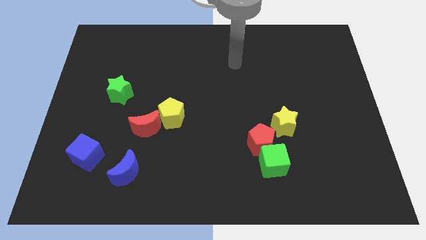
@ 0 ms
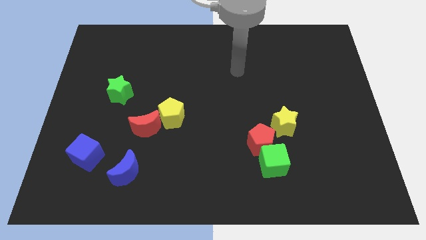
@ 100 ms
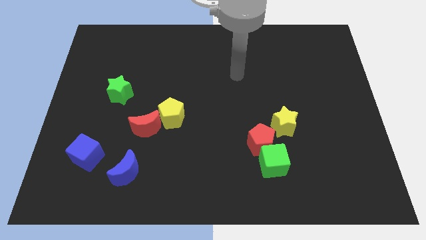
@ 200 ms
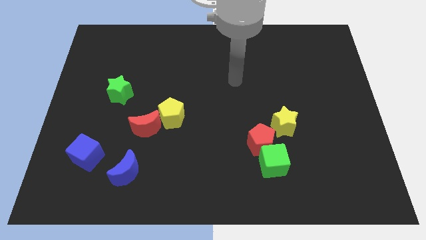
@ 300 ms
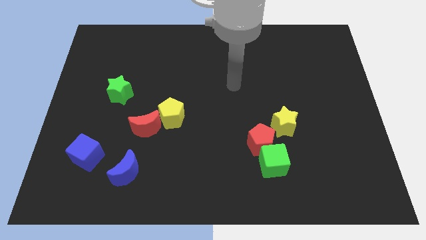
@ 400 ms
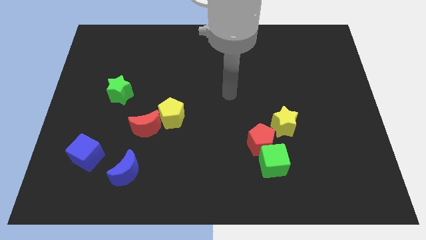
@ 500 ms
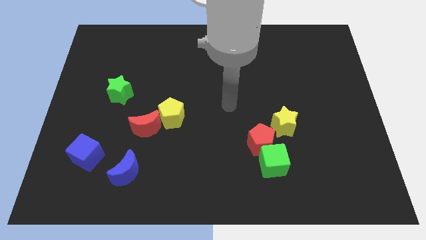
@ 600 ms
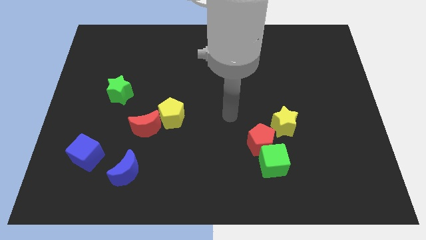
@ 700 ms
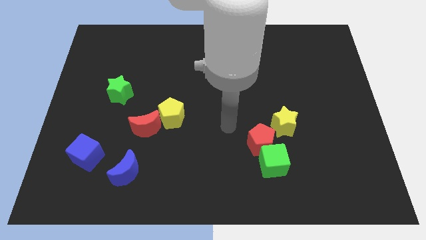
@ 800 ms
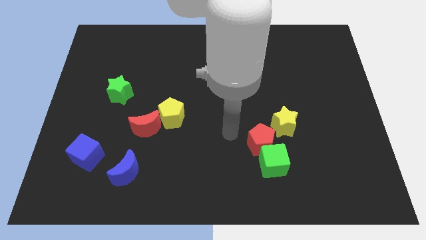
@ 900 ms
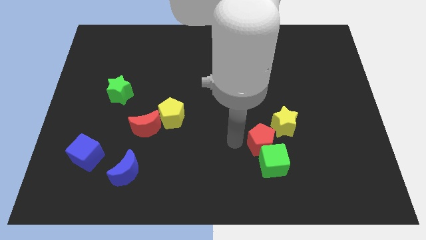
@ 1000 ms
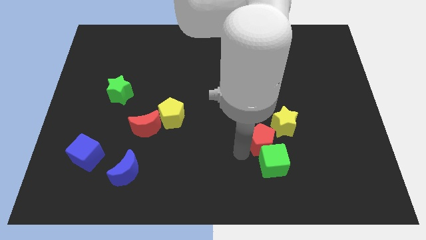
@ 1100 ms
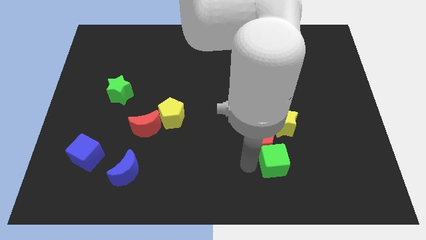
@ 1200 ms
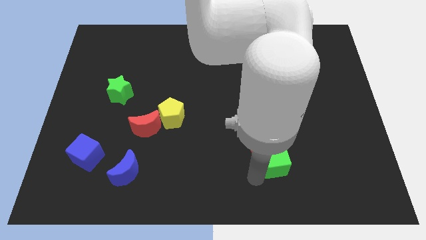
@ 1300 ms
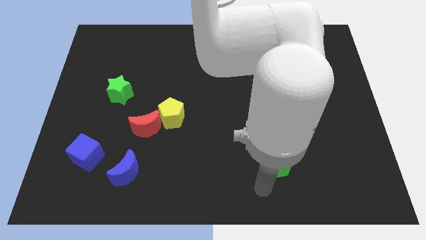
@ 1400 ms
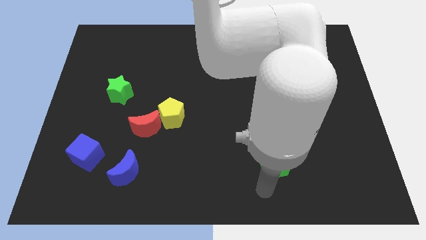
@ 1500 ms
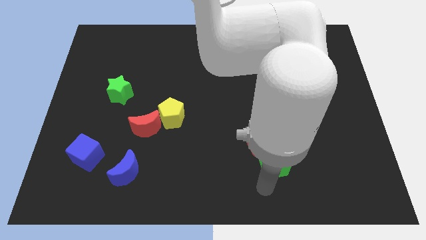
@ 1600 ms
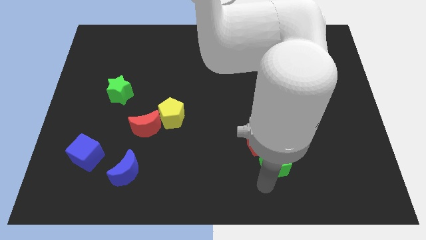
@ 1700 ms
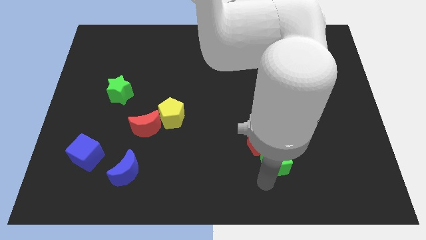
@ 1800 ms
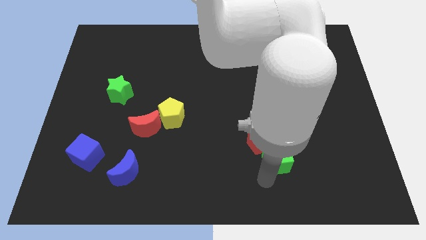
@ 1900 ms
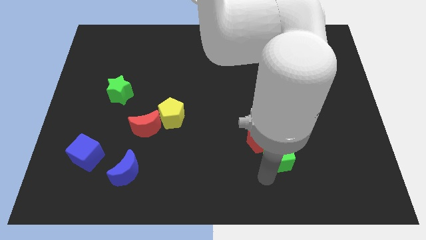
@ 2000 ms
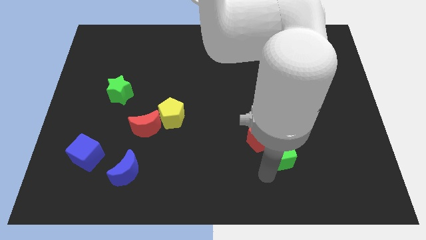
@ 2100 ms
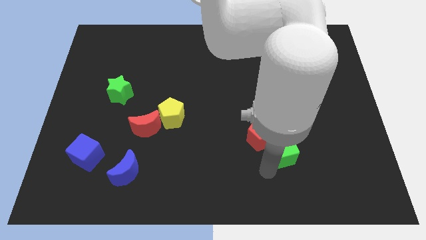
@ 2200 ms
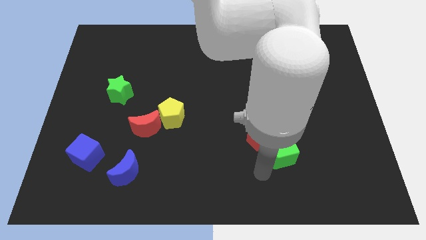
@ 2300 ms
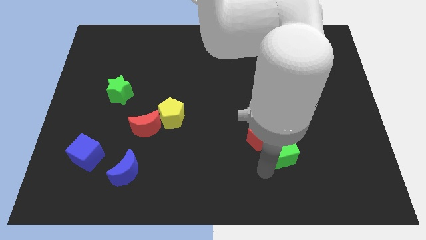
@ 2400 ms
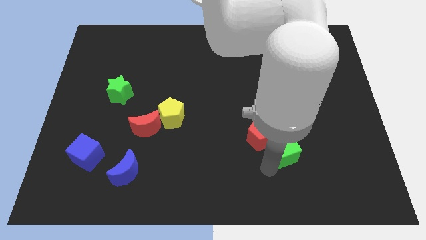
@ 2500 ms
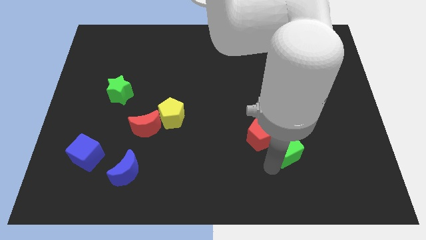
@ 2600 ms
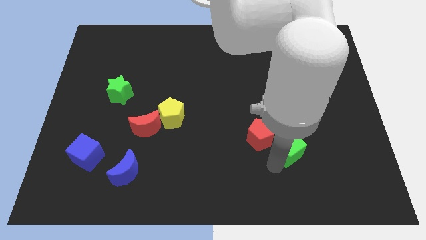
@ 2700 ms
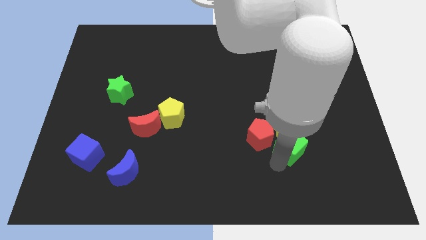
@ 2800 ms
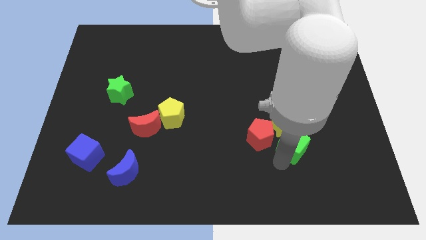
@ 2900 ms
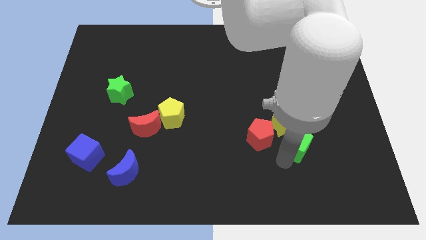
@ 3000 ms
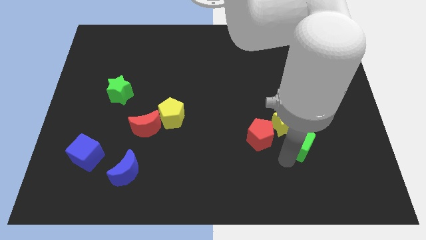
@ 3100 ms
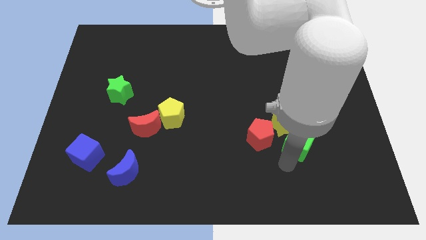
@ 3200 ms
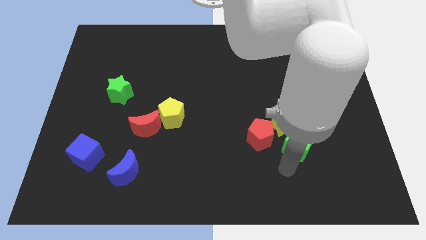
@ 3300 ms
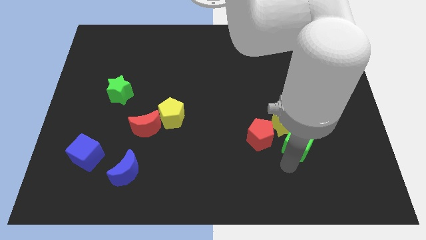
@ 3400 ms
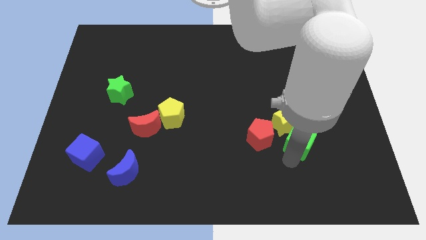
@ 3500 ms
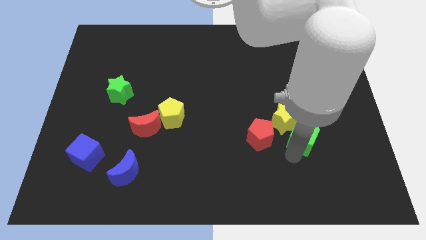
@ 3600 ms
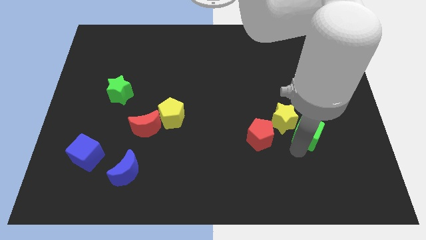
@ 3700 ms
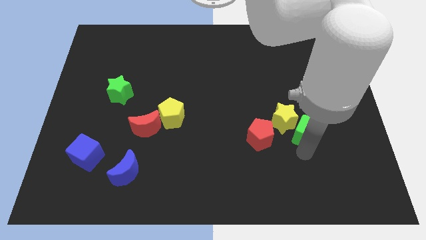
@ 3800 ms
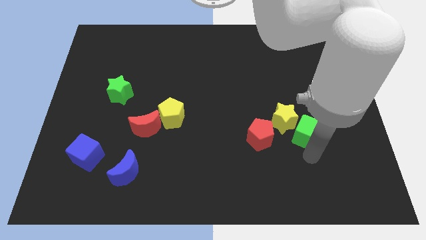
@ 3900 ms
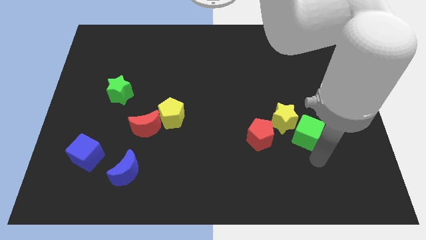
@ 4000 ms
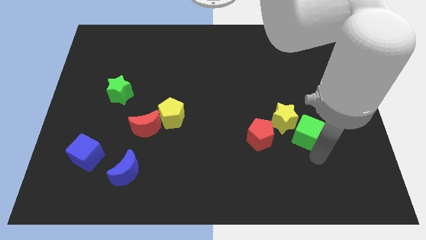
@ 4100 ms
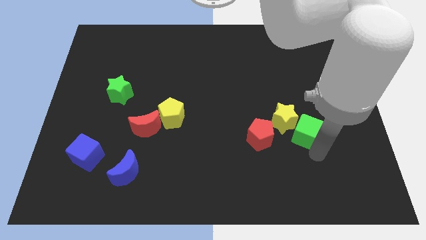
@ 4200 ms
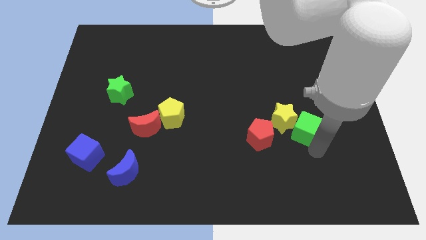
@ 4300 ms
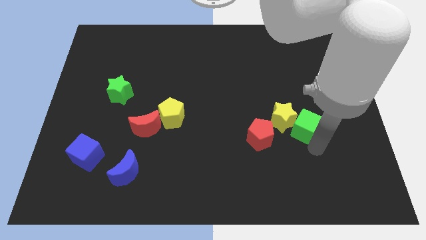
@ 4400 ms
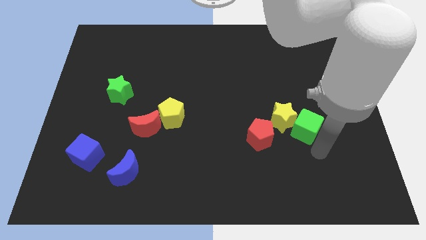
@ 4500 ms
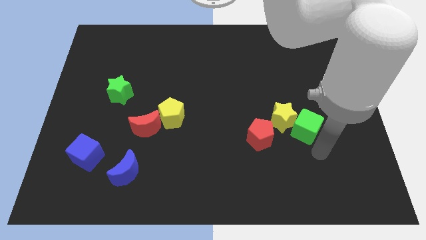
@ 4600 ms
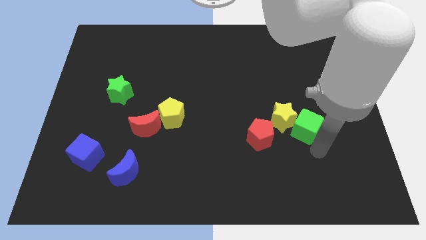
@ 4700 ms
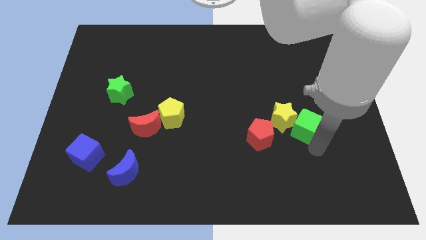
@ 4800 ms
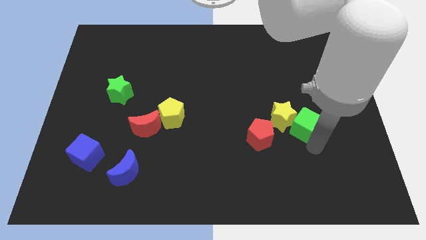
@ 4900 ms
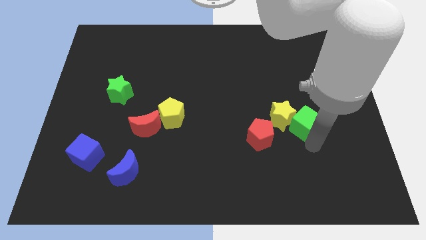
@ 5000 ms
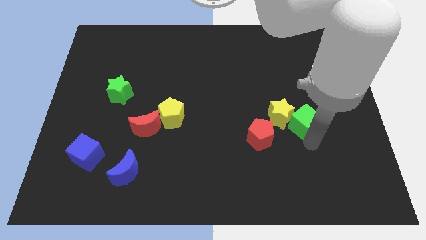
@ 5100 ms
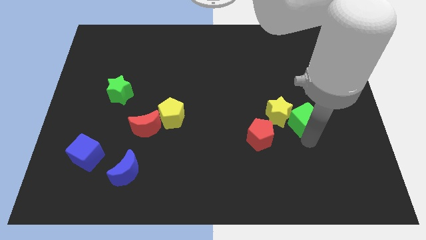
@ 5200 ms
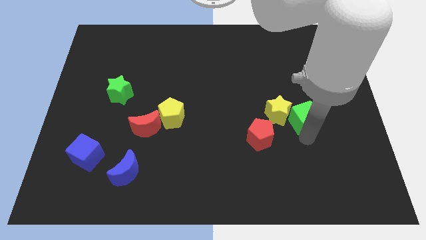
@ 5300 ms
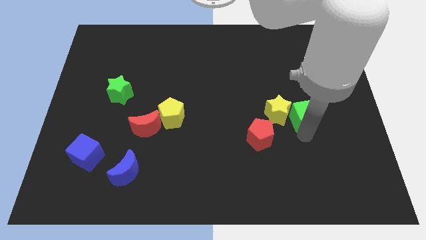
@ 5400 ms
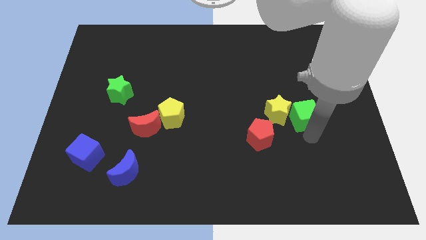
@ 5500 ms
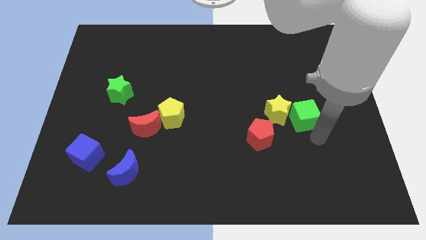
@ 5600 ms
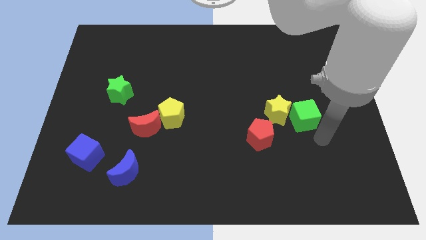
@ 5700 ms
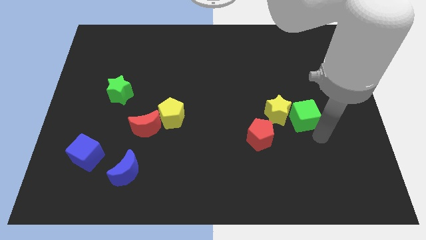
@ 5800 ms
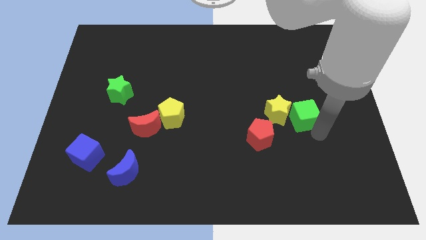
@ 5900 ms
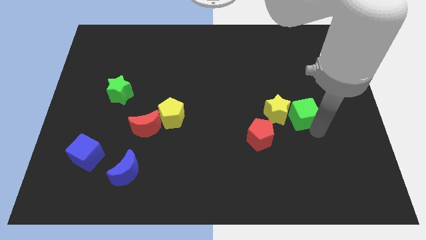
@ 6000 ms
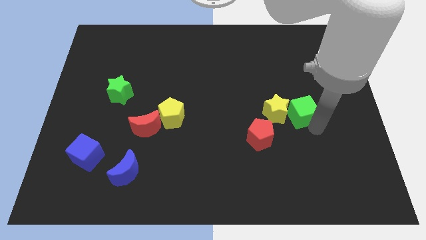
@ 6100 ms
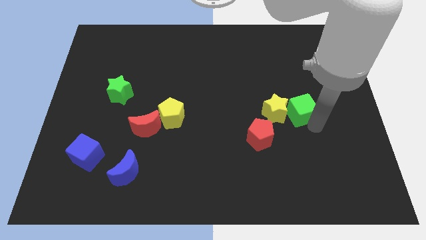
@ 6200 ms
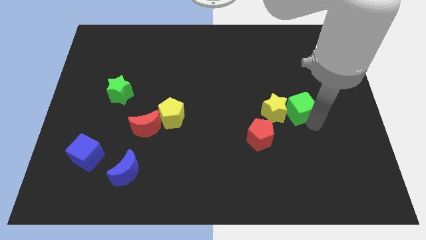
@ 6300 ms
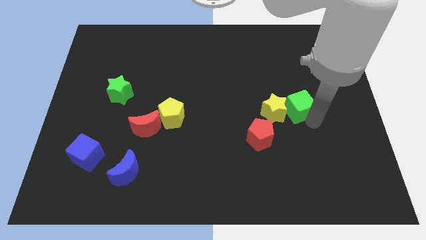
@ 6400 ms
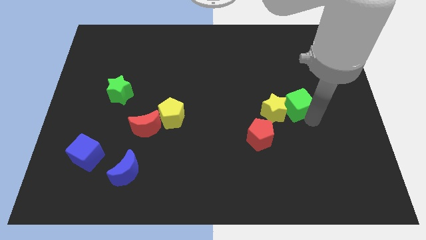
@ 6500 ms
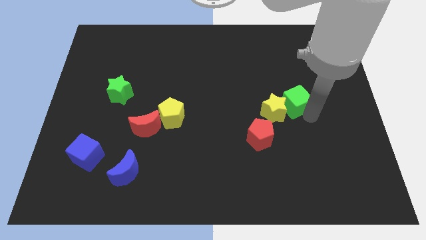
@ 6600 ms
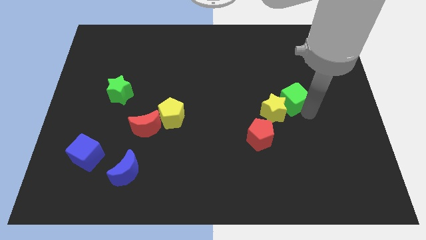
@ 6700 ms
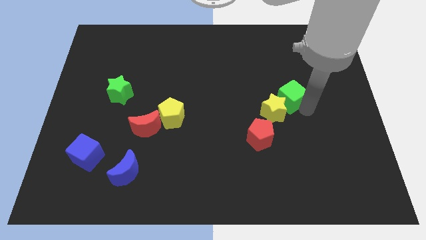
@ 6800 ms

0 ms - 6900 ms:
put the green cube to the top of the yellow star
